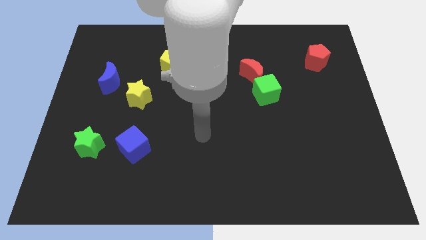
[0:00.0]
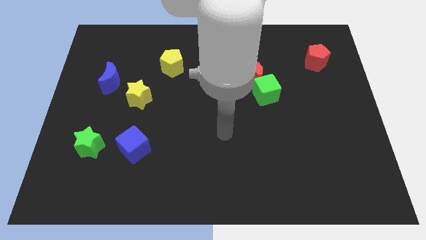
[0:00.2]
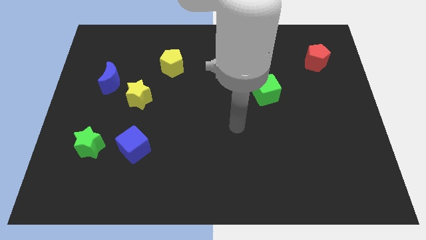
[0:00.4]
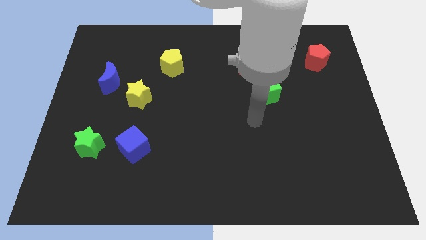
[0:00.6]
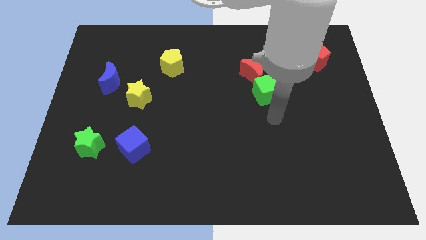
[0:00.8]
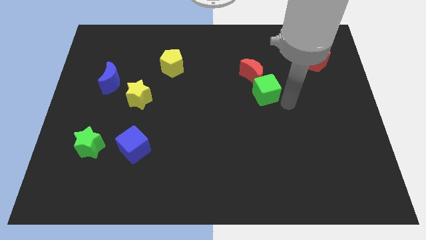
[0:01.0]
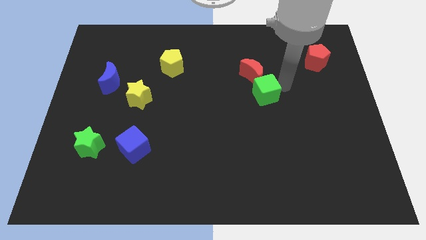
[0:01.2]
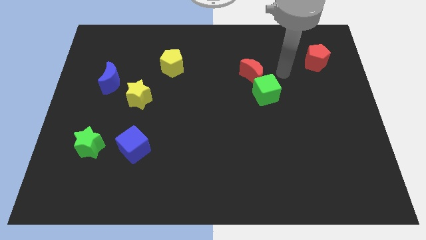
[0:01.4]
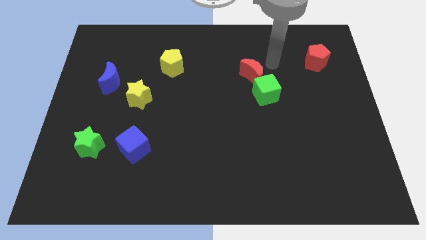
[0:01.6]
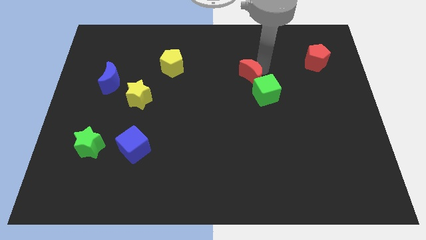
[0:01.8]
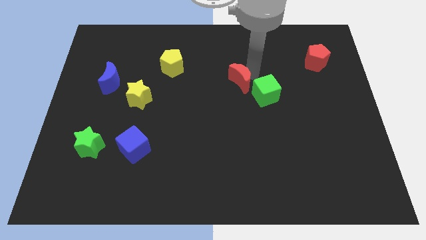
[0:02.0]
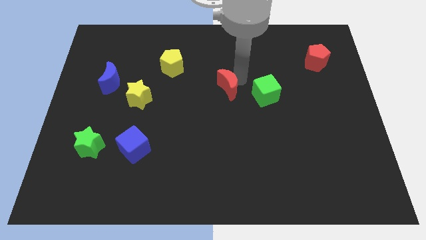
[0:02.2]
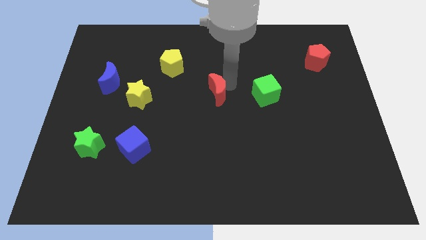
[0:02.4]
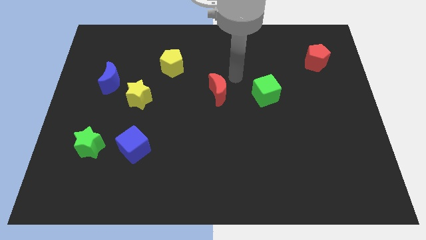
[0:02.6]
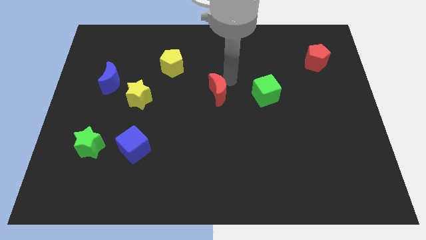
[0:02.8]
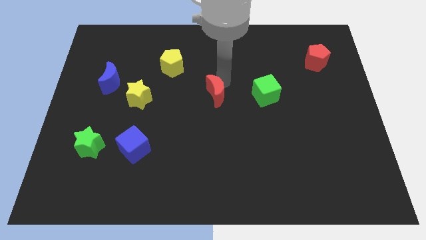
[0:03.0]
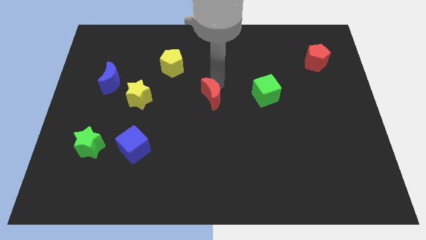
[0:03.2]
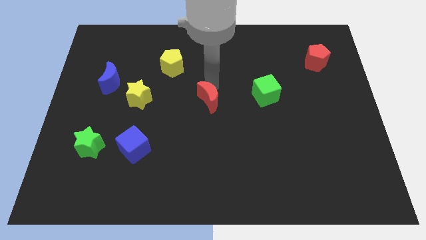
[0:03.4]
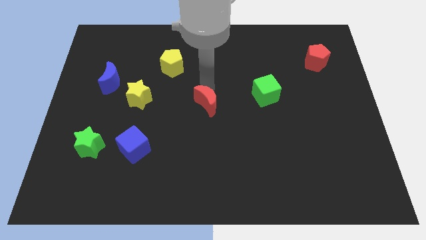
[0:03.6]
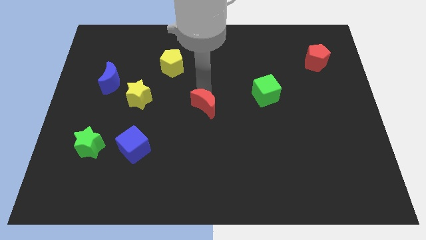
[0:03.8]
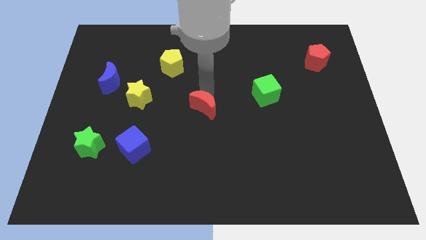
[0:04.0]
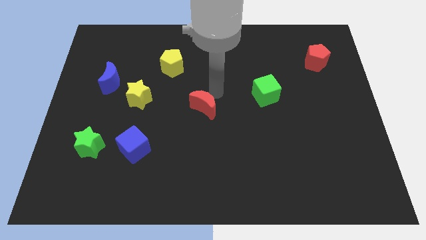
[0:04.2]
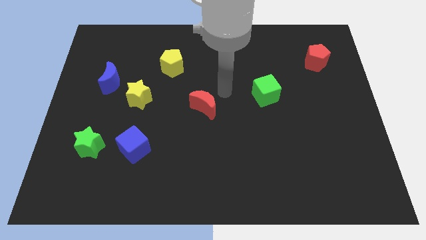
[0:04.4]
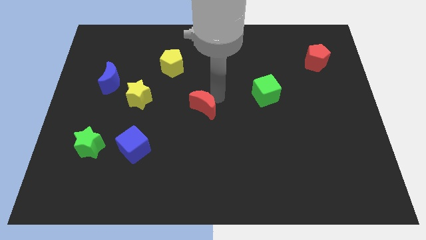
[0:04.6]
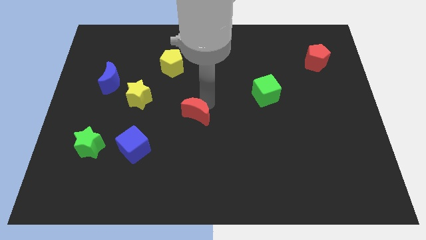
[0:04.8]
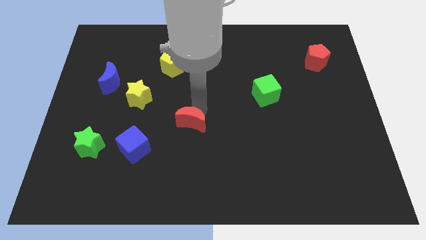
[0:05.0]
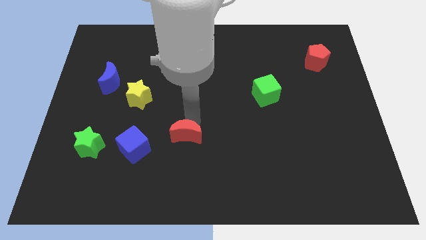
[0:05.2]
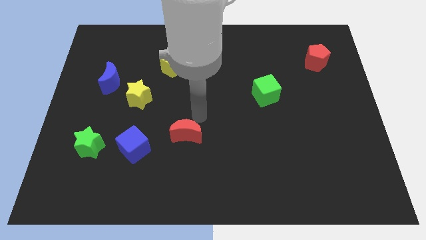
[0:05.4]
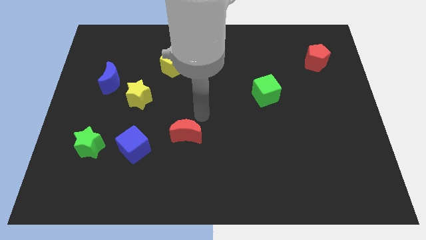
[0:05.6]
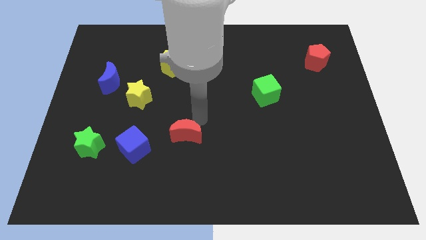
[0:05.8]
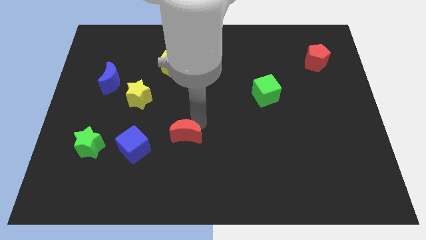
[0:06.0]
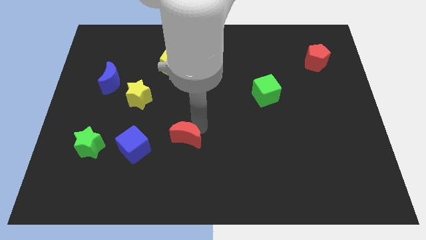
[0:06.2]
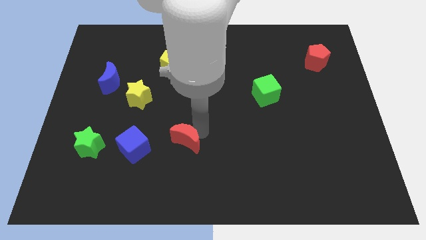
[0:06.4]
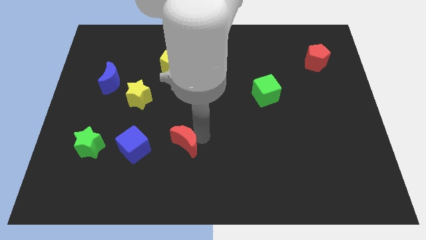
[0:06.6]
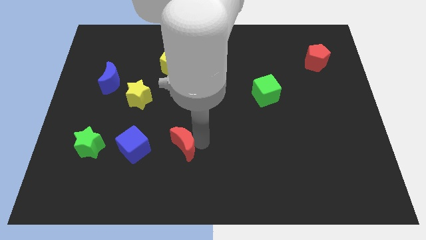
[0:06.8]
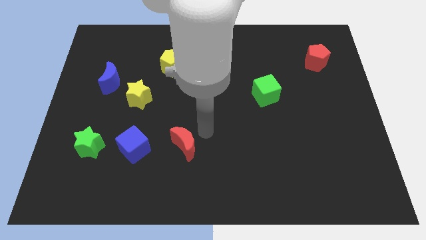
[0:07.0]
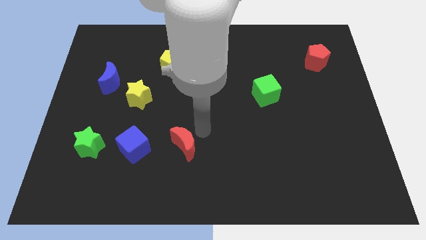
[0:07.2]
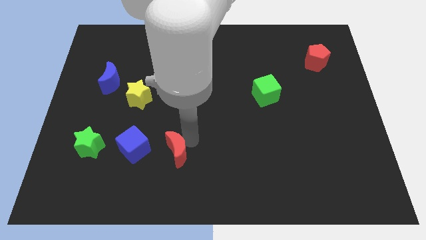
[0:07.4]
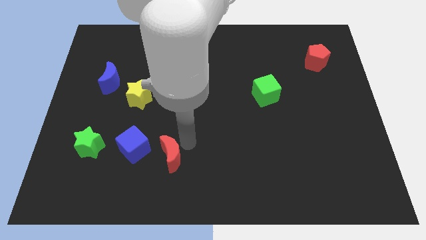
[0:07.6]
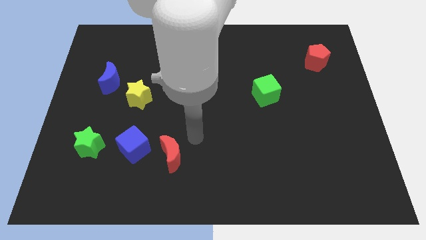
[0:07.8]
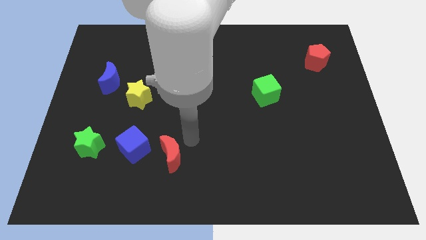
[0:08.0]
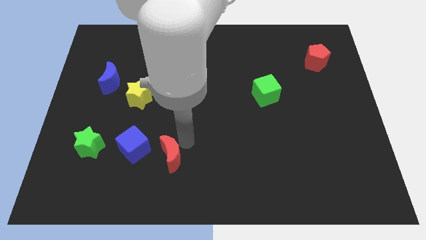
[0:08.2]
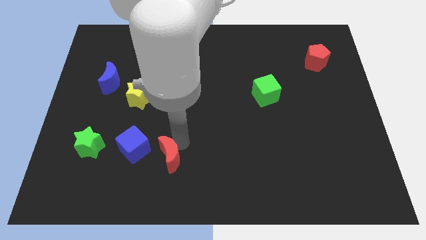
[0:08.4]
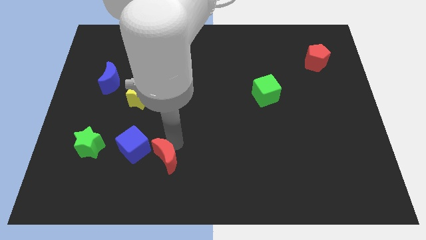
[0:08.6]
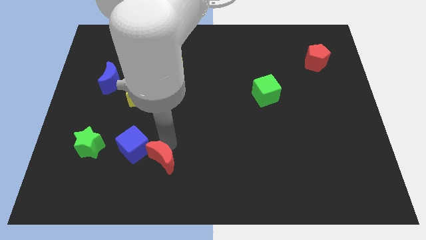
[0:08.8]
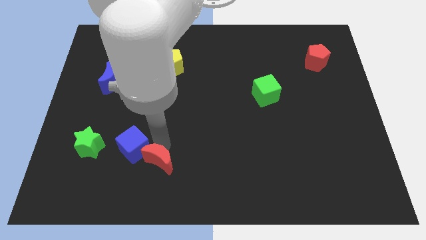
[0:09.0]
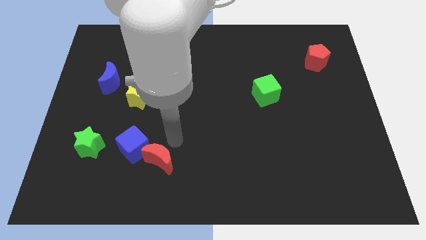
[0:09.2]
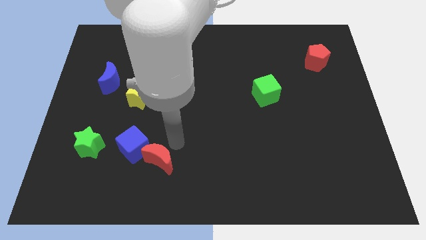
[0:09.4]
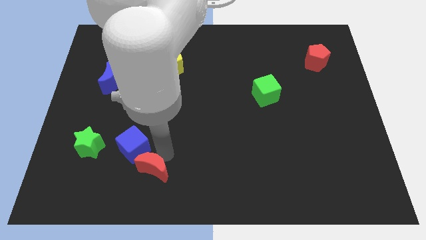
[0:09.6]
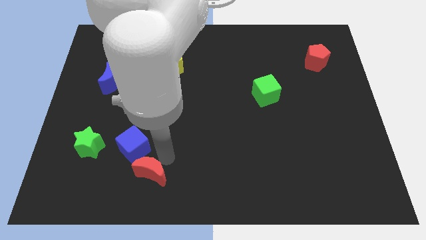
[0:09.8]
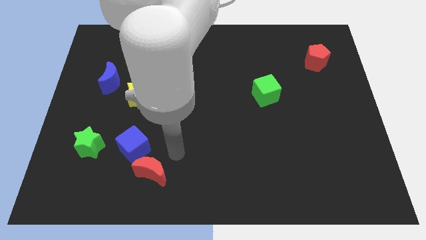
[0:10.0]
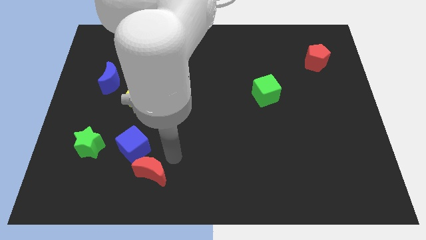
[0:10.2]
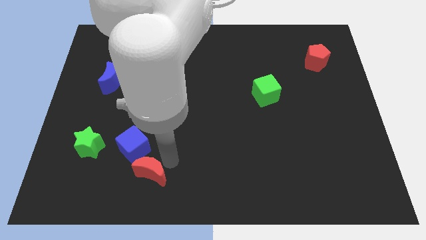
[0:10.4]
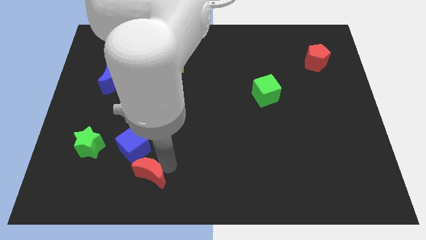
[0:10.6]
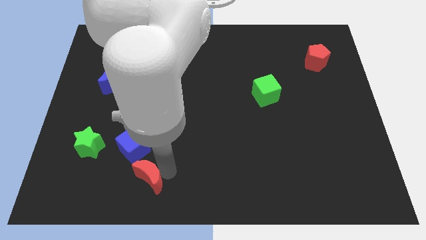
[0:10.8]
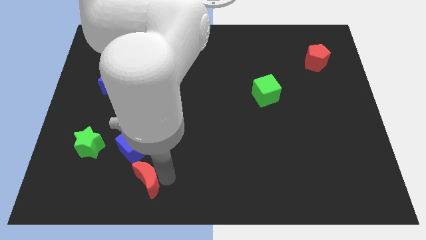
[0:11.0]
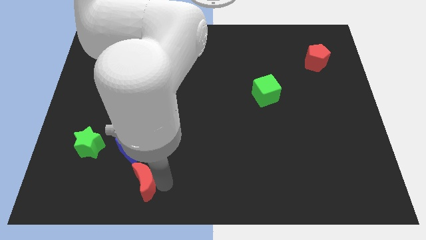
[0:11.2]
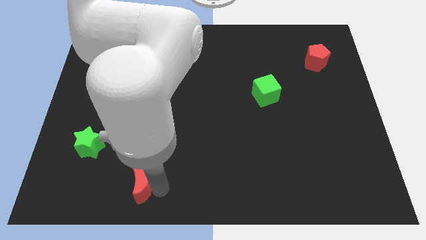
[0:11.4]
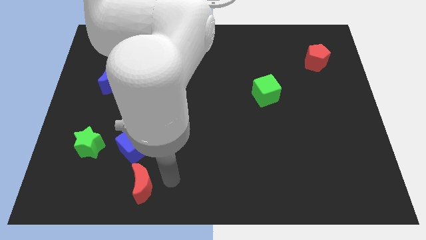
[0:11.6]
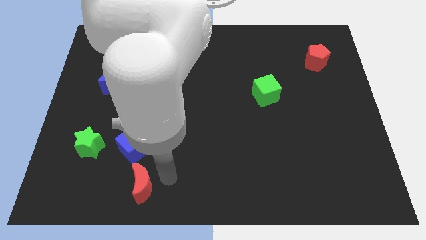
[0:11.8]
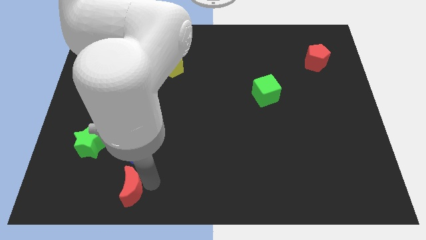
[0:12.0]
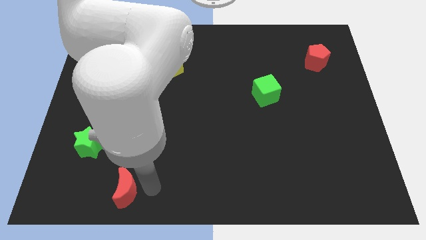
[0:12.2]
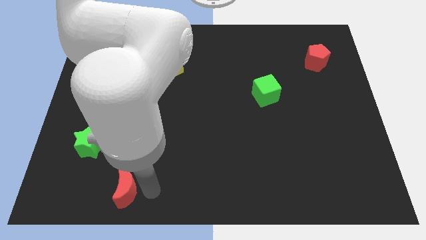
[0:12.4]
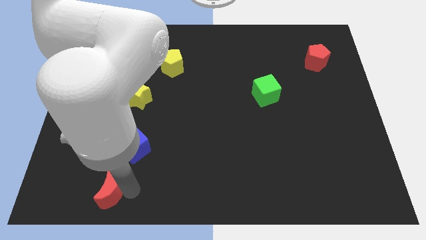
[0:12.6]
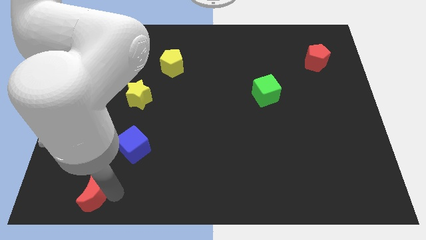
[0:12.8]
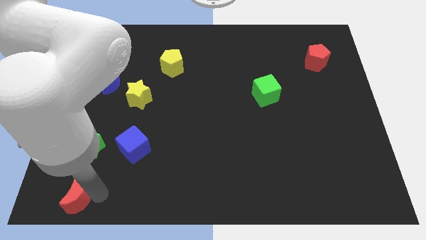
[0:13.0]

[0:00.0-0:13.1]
move the red moon to the bottom left of the board
